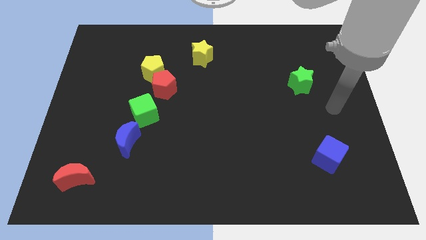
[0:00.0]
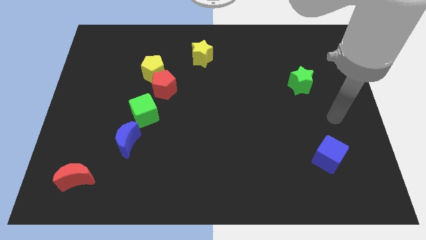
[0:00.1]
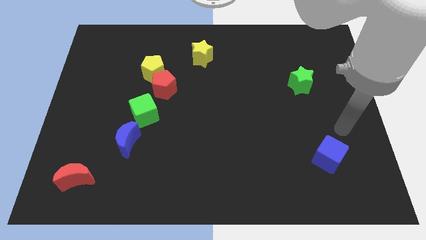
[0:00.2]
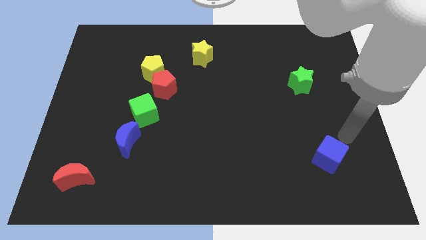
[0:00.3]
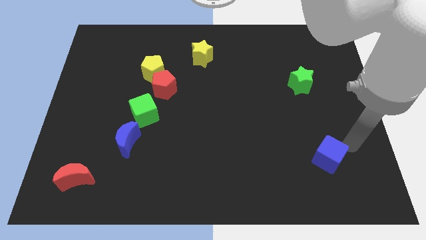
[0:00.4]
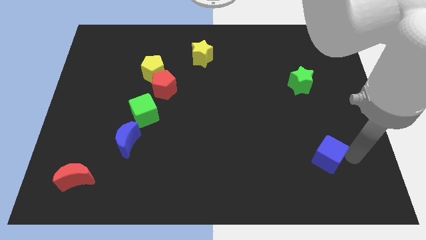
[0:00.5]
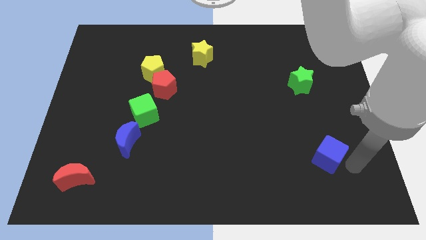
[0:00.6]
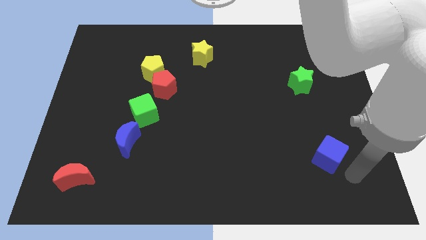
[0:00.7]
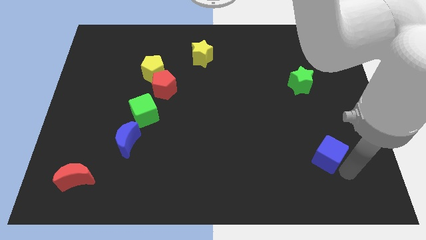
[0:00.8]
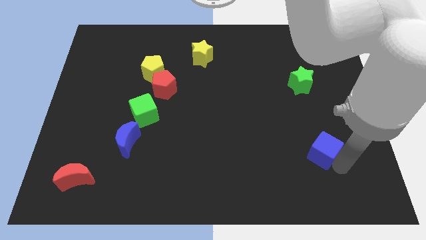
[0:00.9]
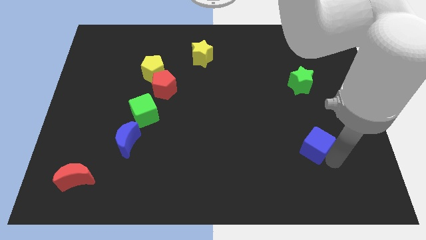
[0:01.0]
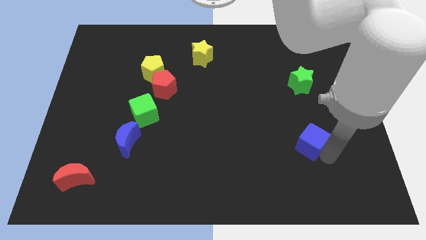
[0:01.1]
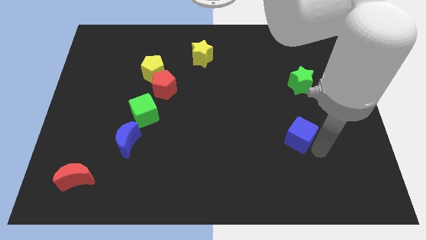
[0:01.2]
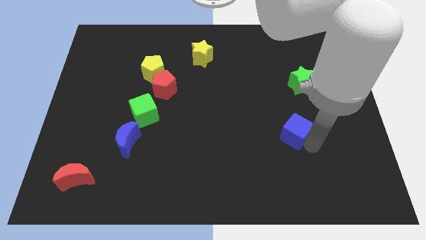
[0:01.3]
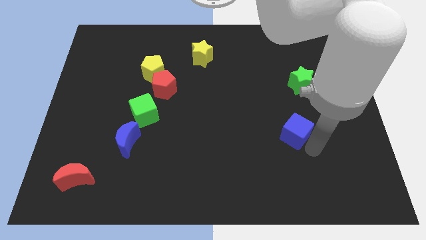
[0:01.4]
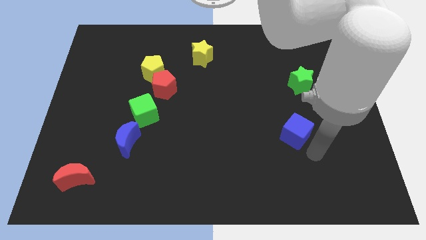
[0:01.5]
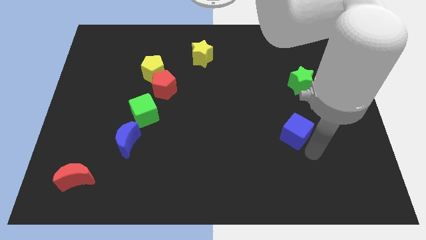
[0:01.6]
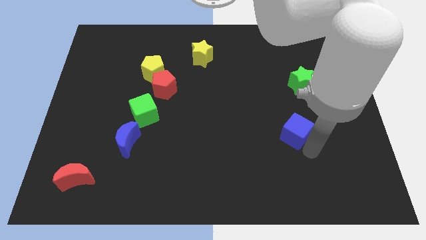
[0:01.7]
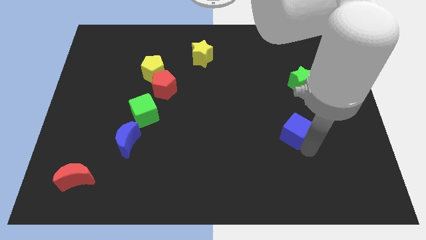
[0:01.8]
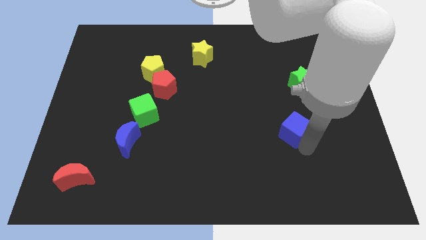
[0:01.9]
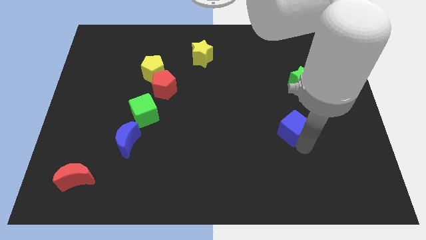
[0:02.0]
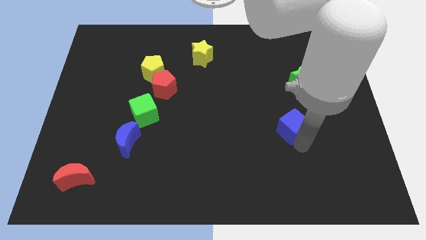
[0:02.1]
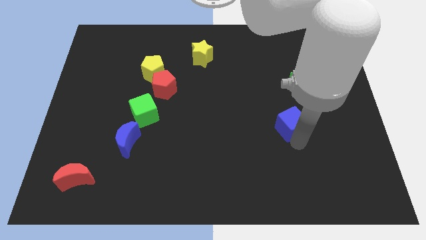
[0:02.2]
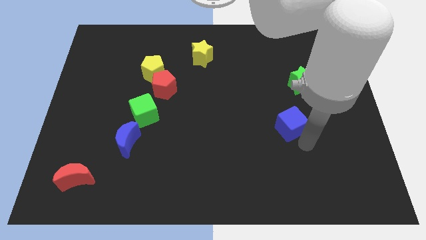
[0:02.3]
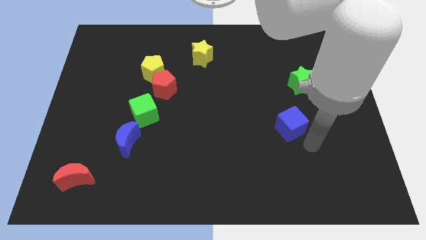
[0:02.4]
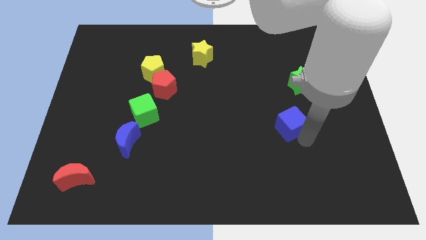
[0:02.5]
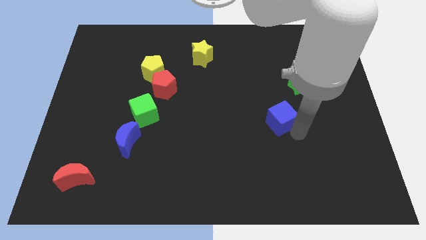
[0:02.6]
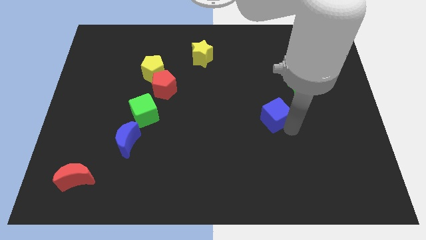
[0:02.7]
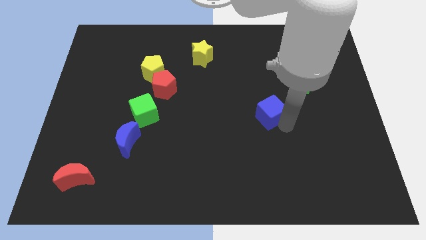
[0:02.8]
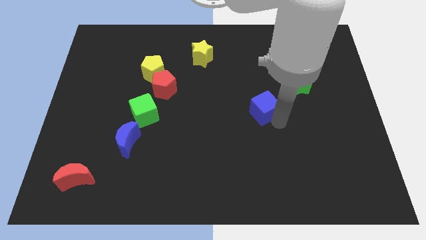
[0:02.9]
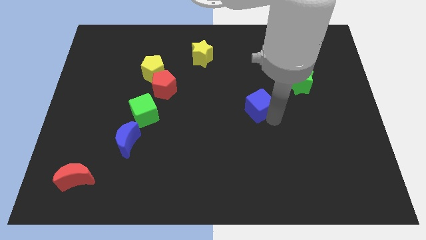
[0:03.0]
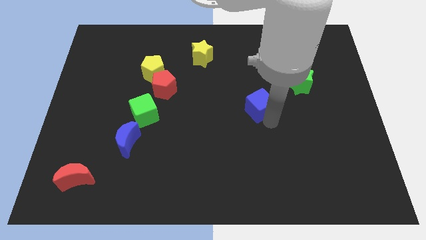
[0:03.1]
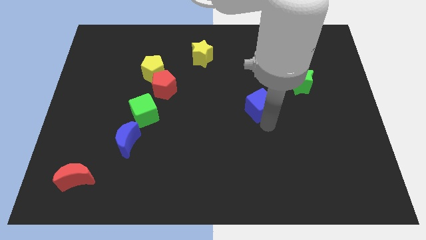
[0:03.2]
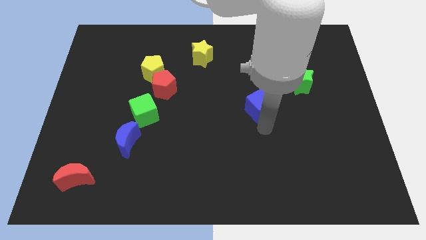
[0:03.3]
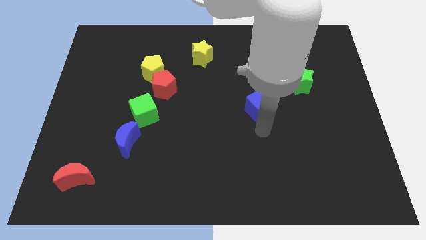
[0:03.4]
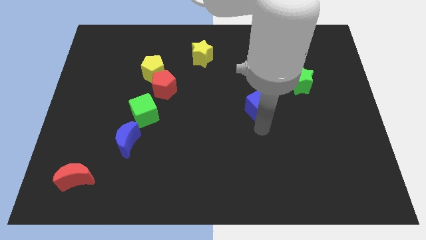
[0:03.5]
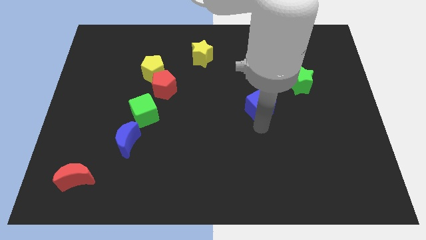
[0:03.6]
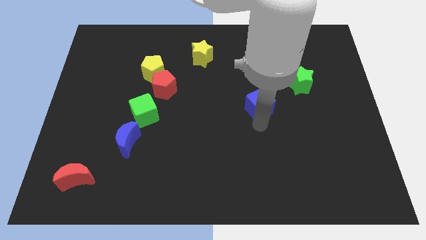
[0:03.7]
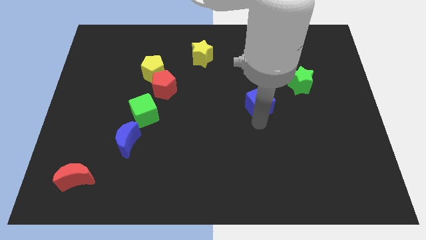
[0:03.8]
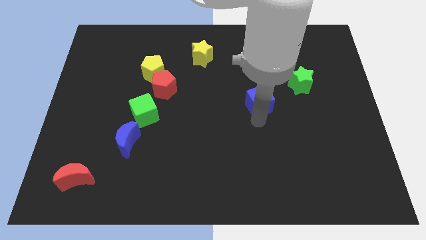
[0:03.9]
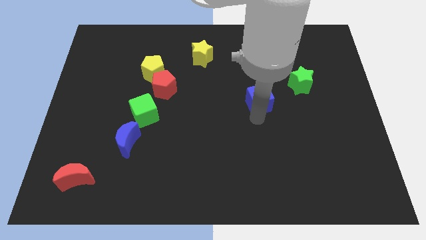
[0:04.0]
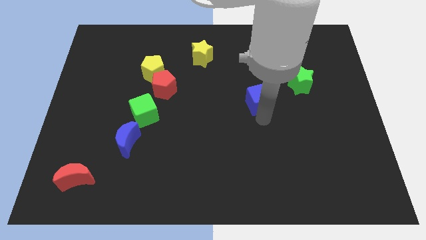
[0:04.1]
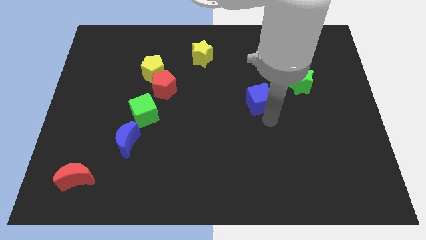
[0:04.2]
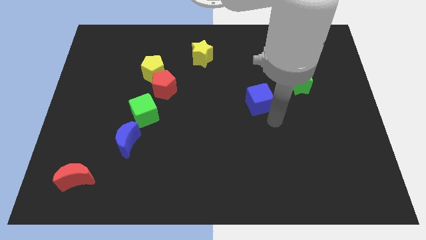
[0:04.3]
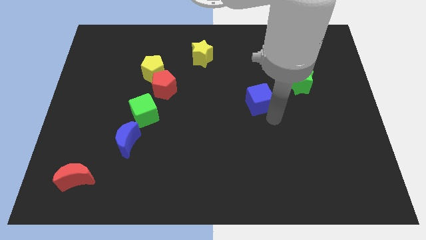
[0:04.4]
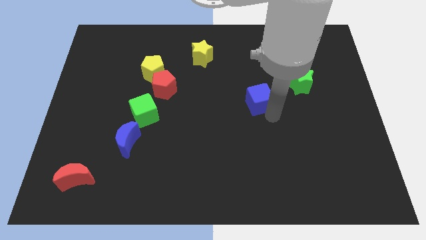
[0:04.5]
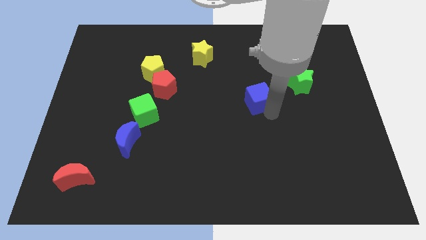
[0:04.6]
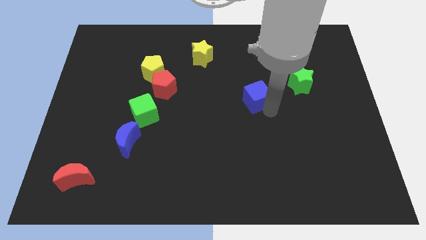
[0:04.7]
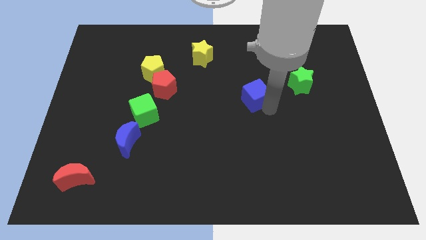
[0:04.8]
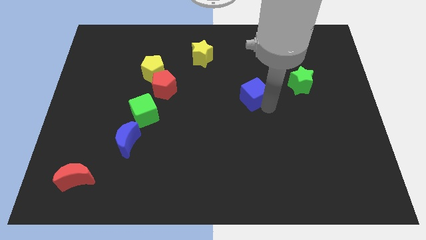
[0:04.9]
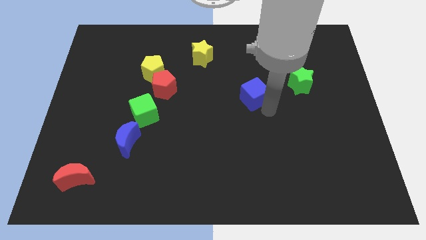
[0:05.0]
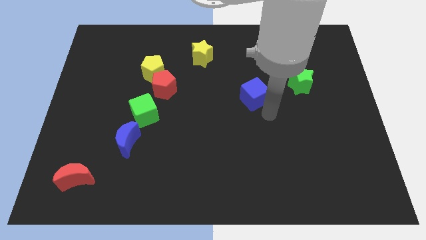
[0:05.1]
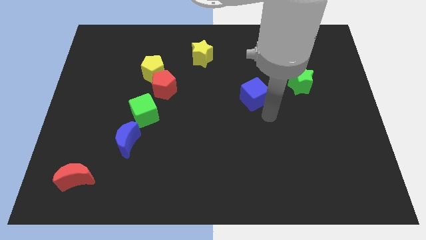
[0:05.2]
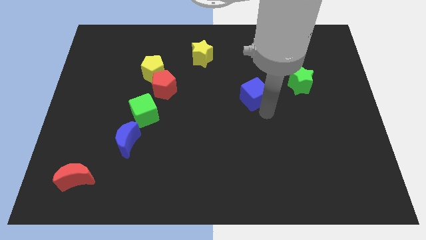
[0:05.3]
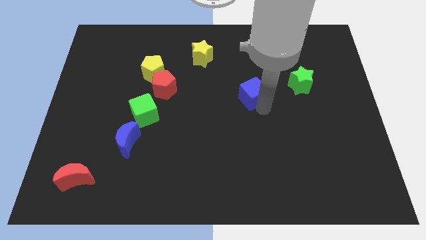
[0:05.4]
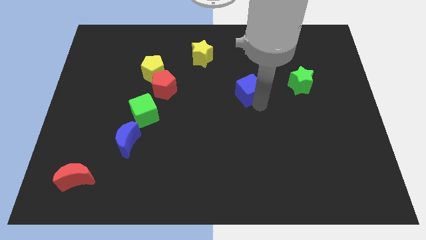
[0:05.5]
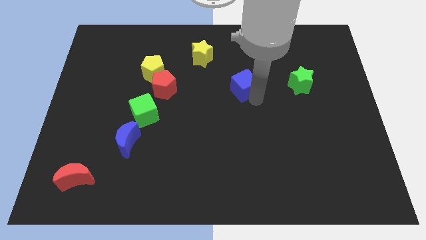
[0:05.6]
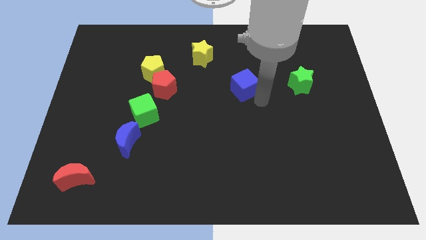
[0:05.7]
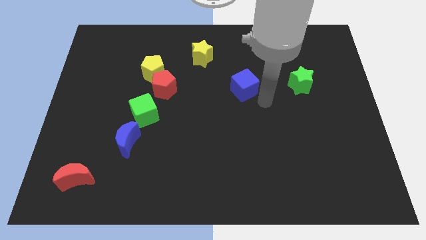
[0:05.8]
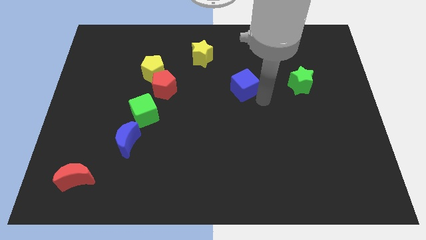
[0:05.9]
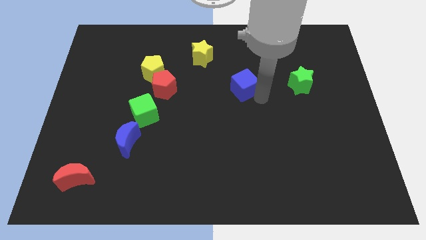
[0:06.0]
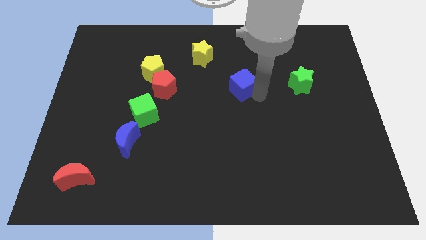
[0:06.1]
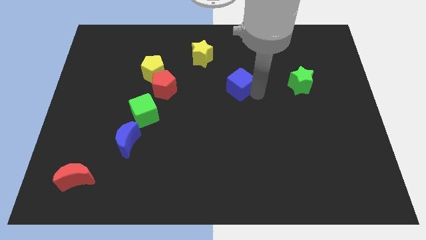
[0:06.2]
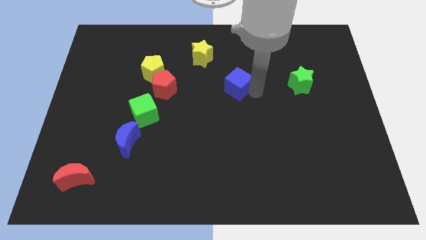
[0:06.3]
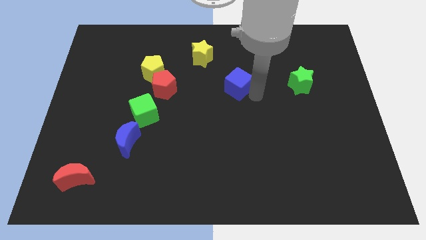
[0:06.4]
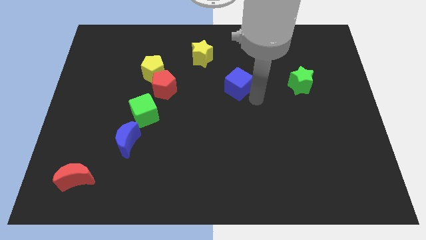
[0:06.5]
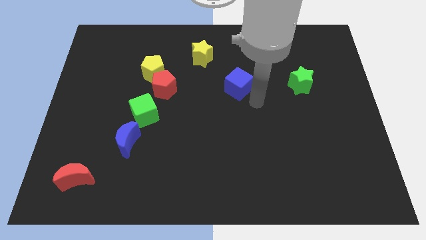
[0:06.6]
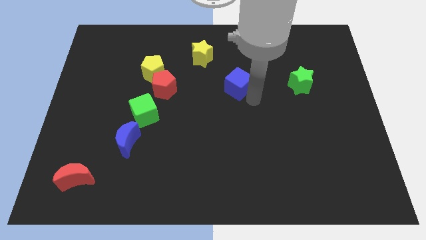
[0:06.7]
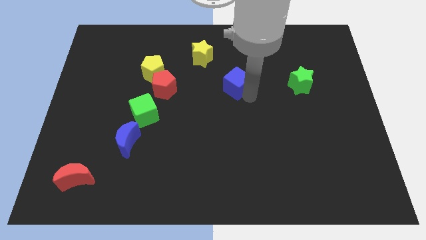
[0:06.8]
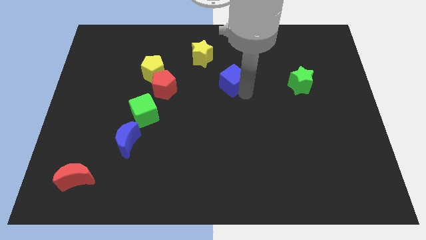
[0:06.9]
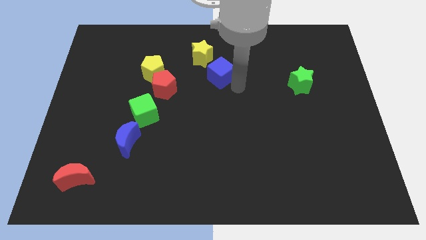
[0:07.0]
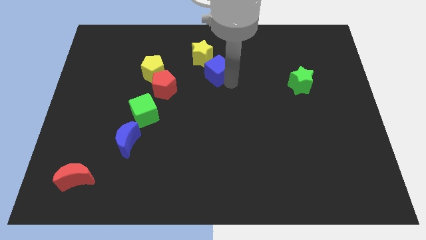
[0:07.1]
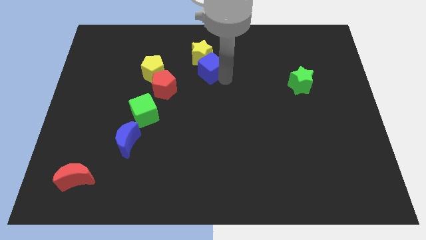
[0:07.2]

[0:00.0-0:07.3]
move the blue cube to the yellow star
